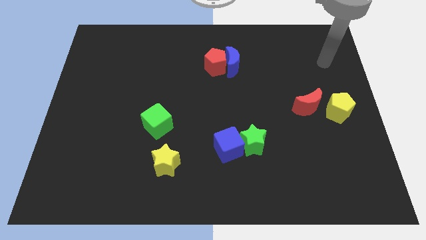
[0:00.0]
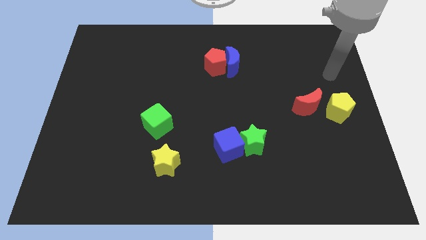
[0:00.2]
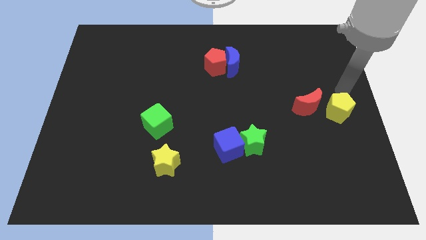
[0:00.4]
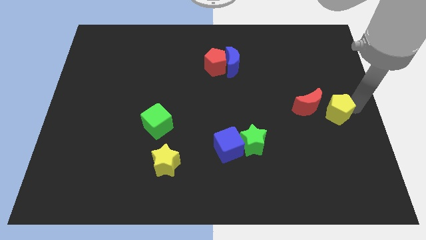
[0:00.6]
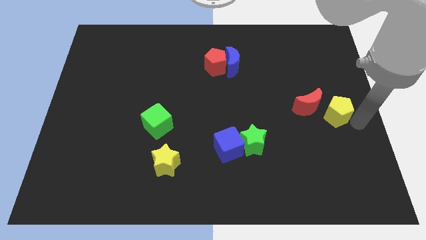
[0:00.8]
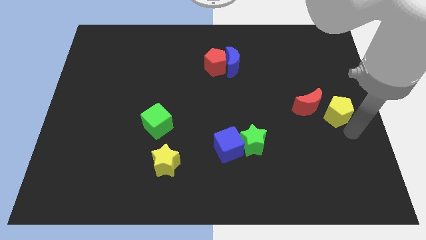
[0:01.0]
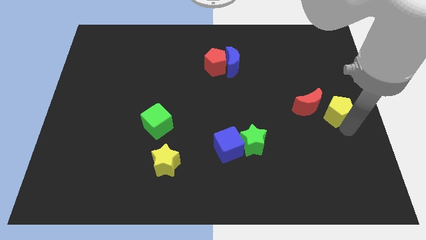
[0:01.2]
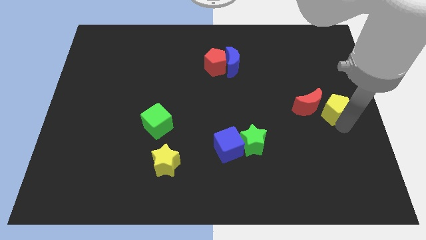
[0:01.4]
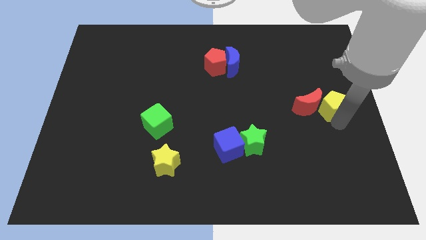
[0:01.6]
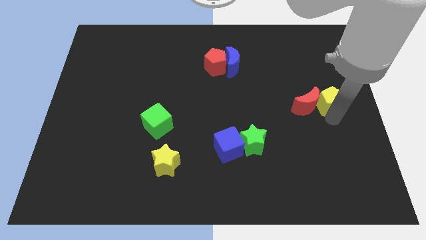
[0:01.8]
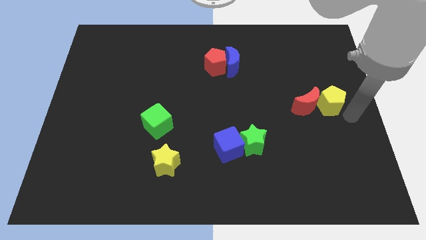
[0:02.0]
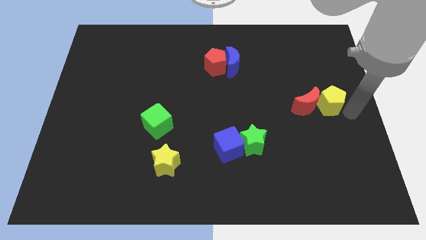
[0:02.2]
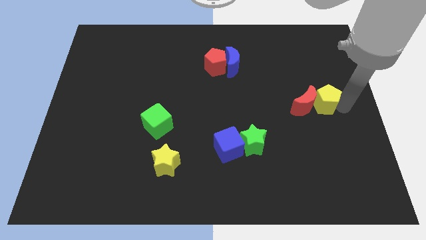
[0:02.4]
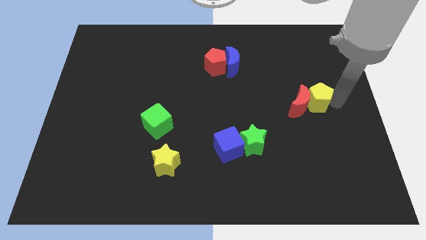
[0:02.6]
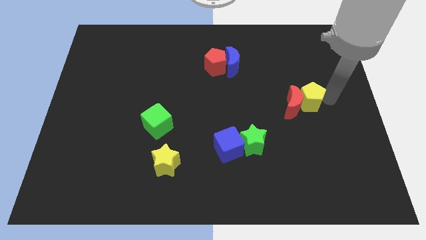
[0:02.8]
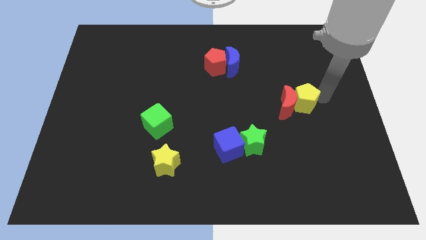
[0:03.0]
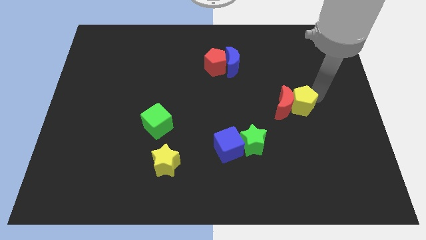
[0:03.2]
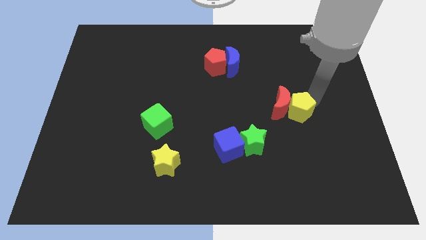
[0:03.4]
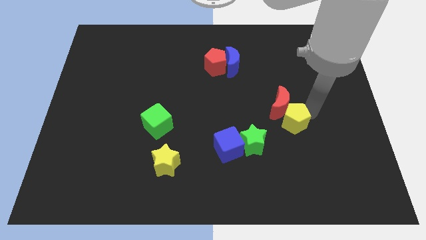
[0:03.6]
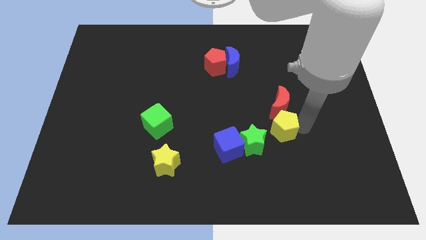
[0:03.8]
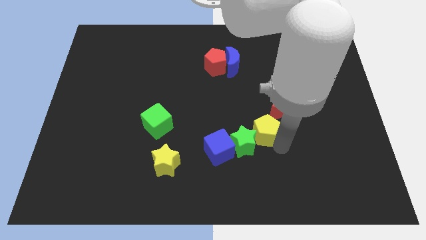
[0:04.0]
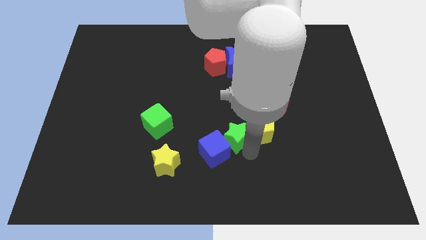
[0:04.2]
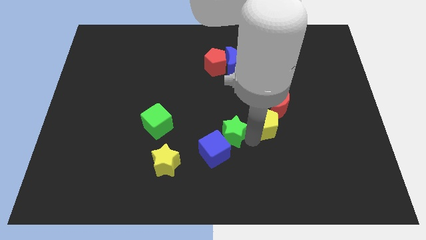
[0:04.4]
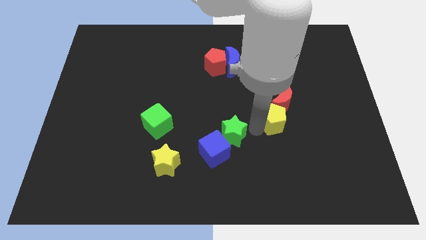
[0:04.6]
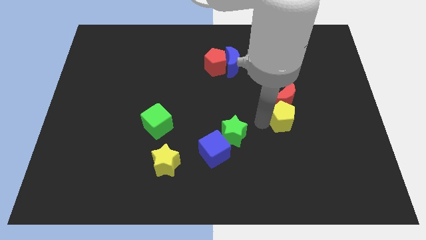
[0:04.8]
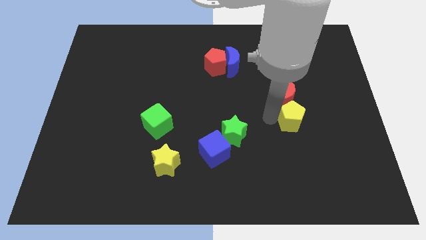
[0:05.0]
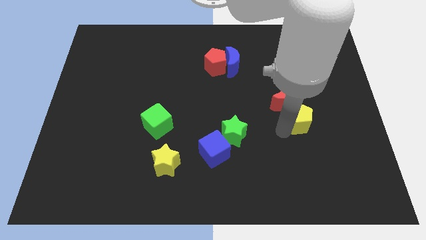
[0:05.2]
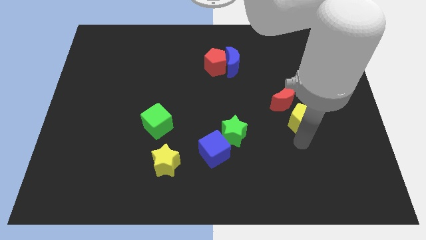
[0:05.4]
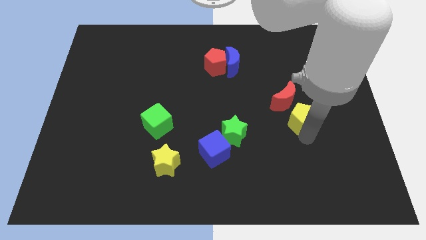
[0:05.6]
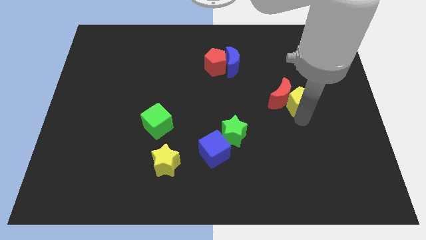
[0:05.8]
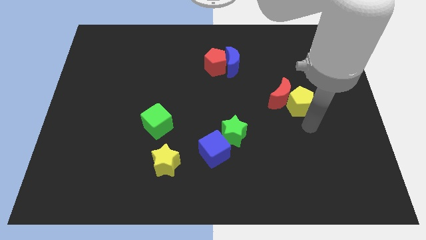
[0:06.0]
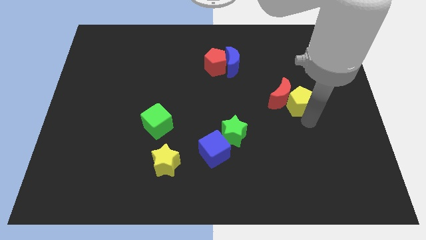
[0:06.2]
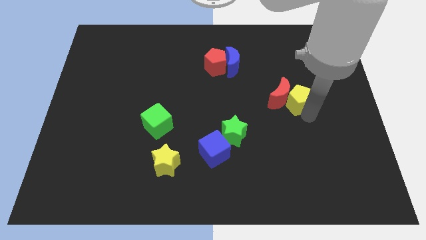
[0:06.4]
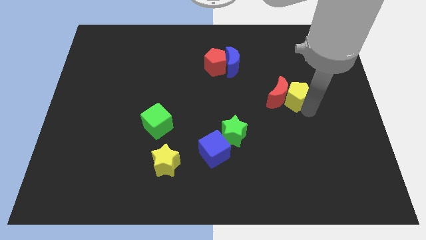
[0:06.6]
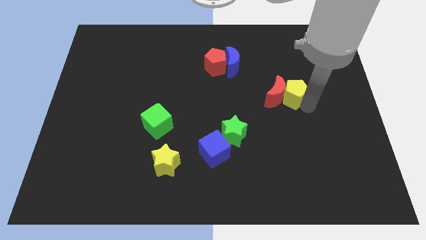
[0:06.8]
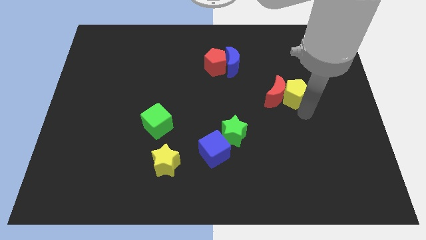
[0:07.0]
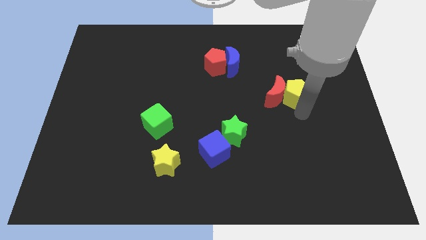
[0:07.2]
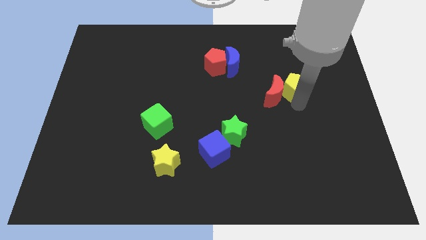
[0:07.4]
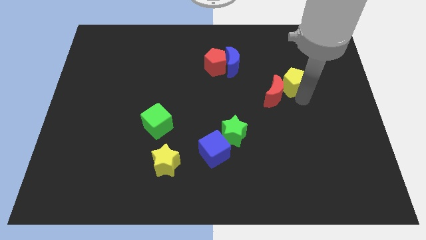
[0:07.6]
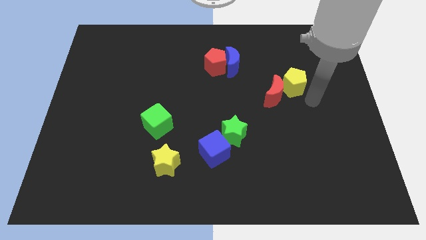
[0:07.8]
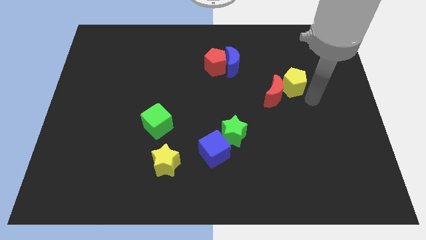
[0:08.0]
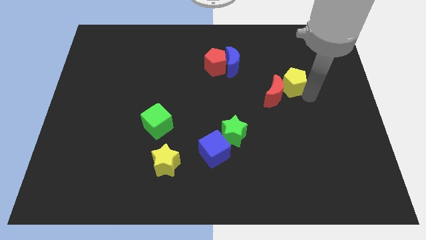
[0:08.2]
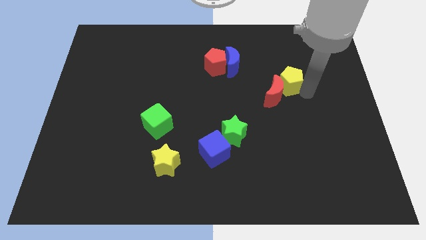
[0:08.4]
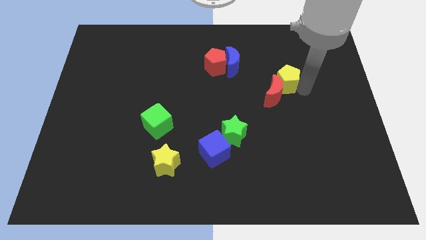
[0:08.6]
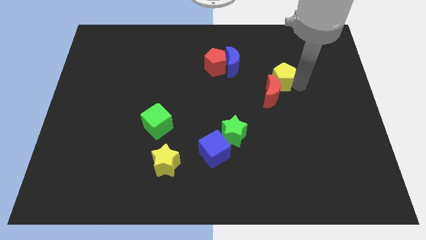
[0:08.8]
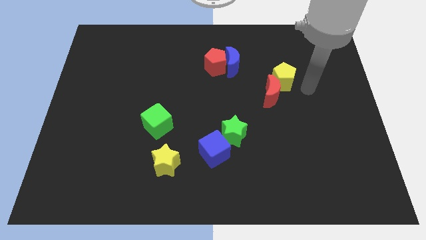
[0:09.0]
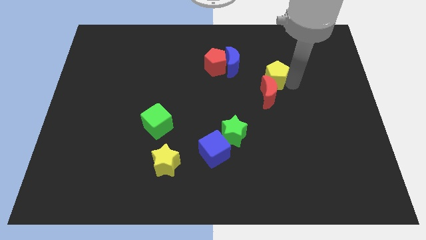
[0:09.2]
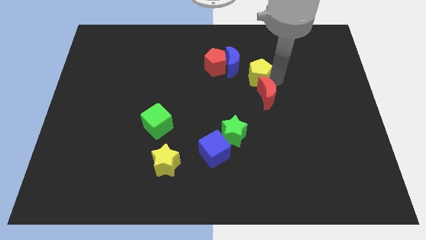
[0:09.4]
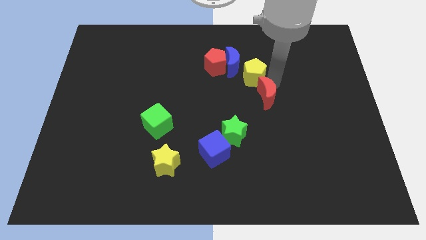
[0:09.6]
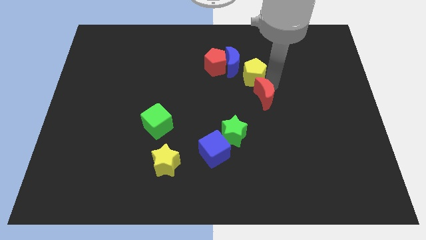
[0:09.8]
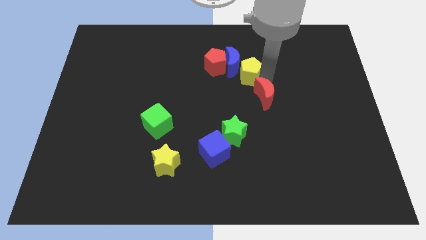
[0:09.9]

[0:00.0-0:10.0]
move the yellow pentagon to the blue moon

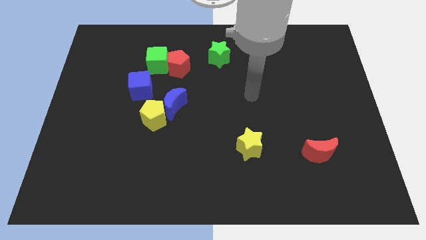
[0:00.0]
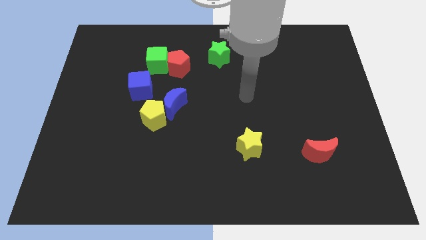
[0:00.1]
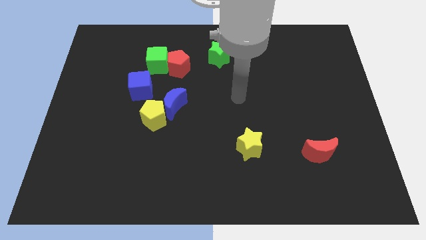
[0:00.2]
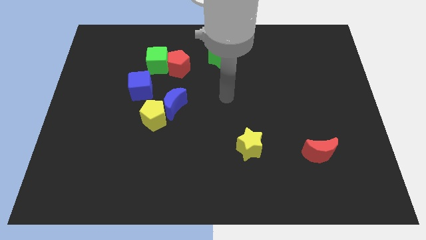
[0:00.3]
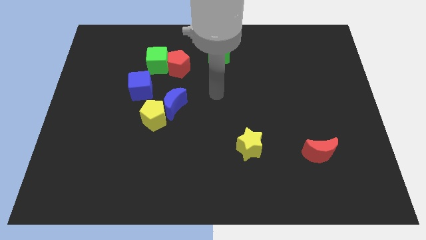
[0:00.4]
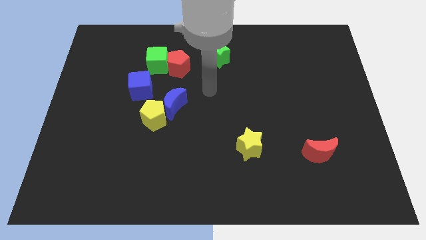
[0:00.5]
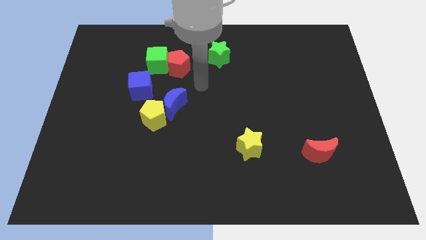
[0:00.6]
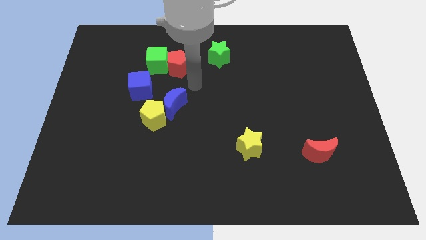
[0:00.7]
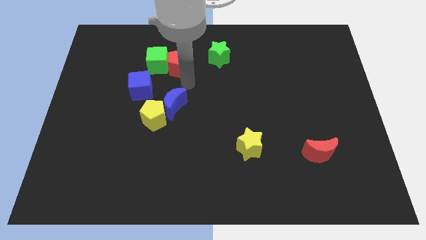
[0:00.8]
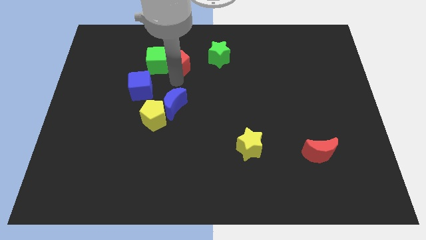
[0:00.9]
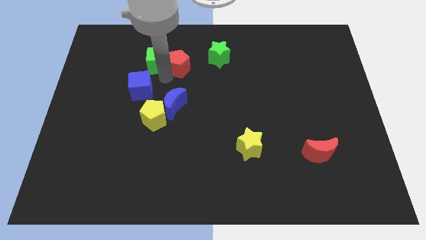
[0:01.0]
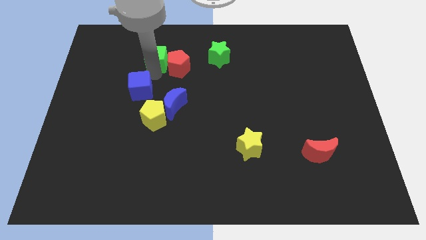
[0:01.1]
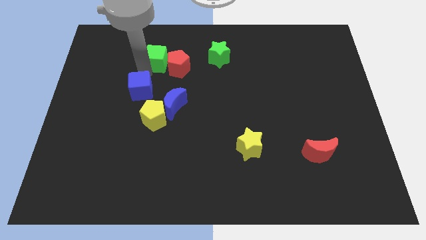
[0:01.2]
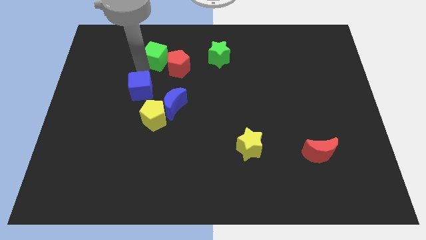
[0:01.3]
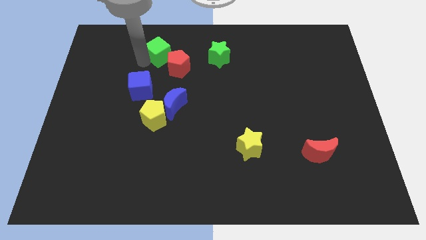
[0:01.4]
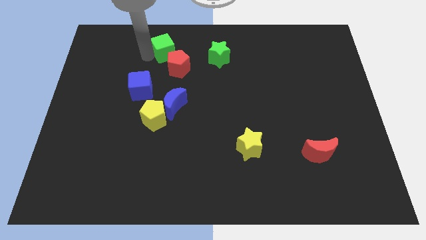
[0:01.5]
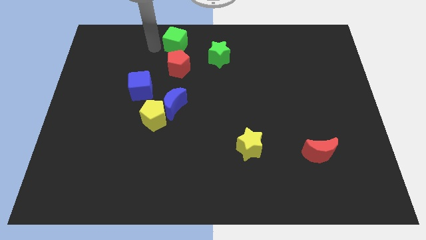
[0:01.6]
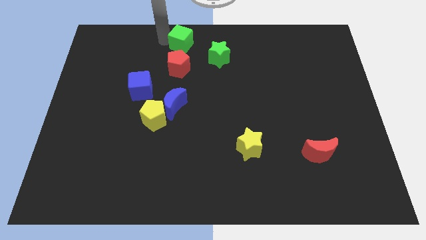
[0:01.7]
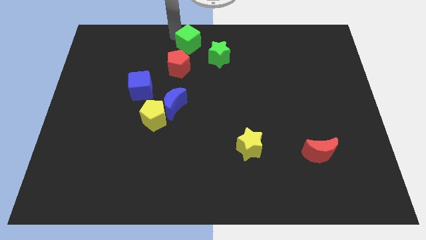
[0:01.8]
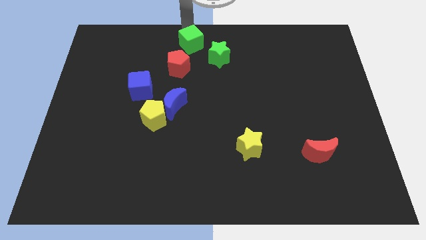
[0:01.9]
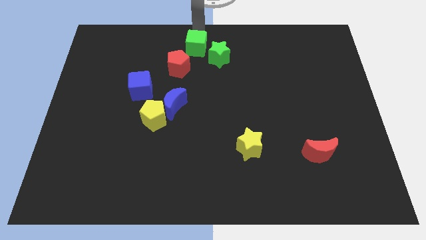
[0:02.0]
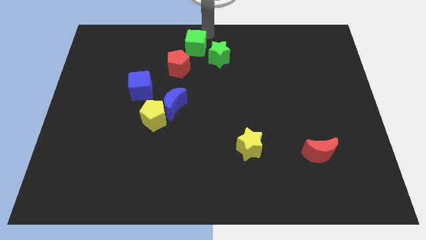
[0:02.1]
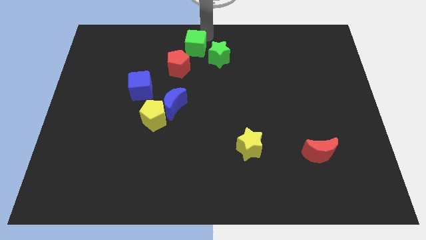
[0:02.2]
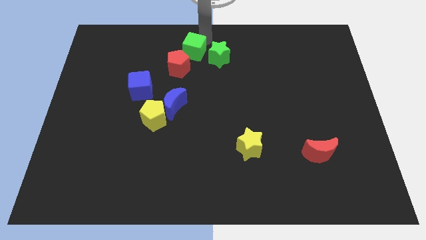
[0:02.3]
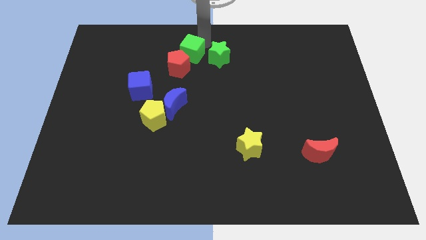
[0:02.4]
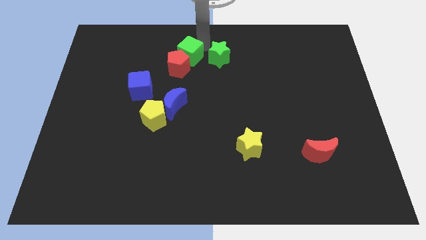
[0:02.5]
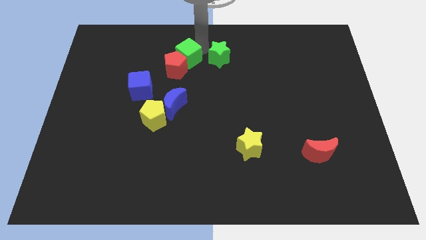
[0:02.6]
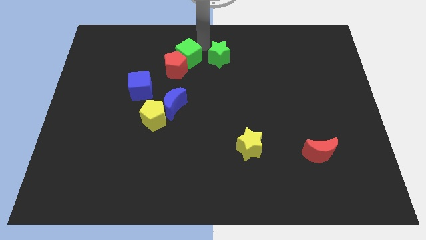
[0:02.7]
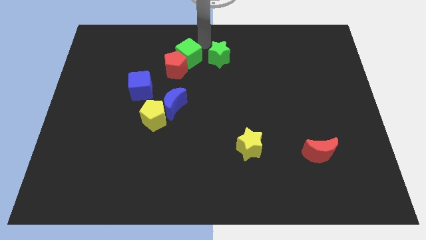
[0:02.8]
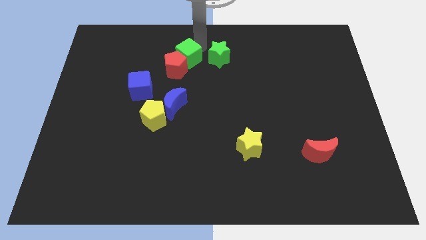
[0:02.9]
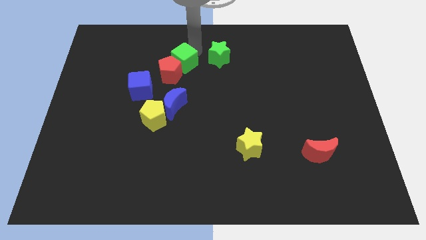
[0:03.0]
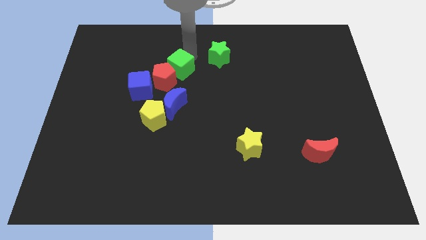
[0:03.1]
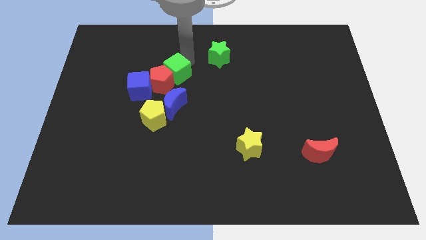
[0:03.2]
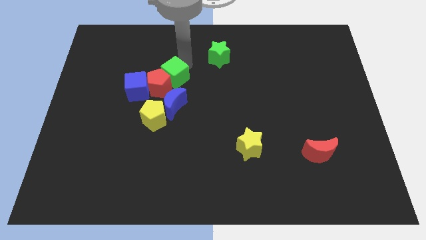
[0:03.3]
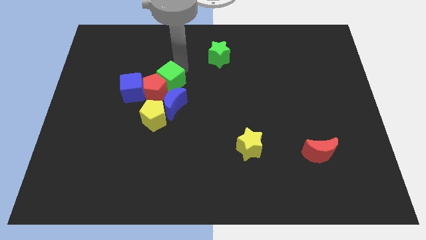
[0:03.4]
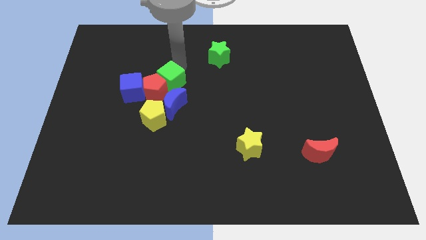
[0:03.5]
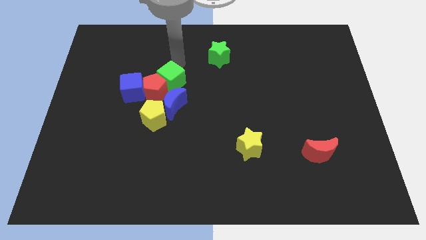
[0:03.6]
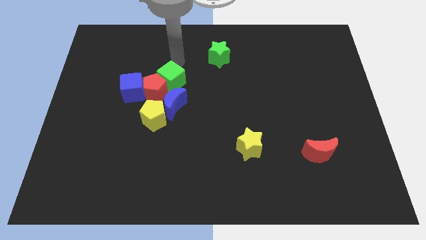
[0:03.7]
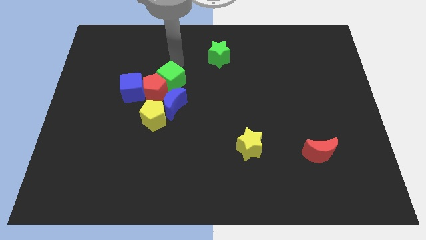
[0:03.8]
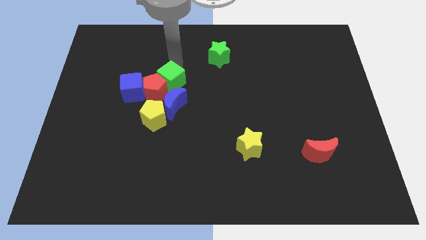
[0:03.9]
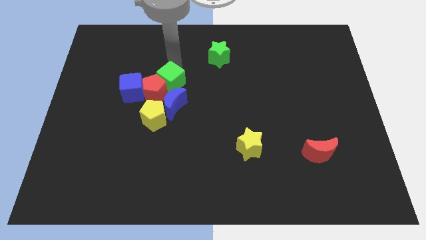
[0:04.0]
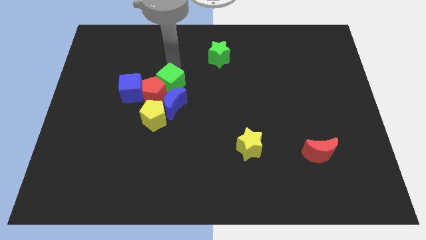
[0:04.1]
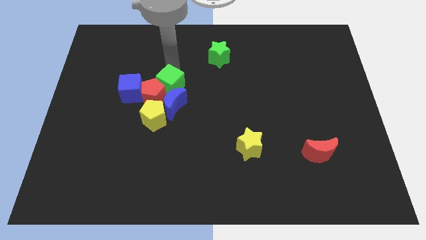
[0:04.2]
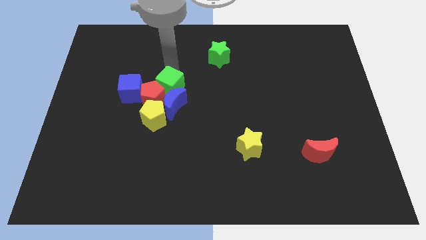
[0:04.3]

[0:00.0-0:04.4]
move the green cube to the blue moon
